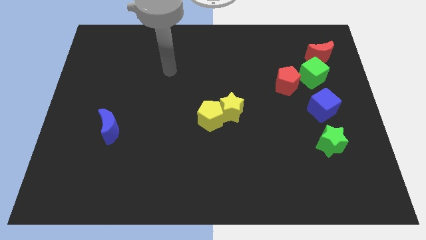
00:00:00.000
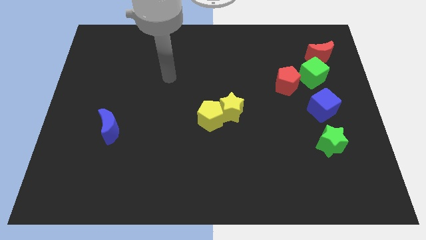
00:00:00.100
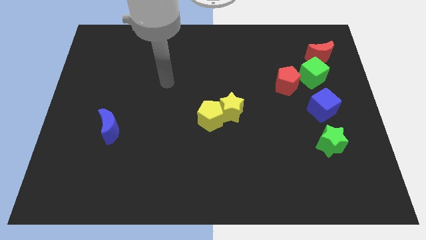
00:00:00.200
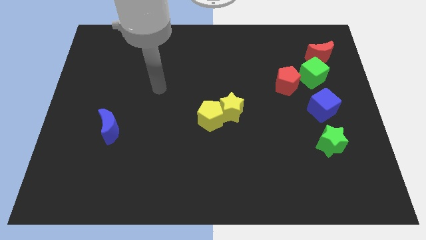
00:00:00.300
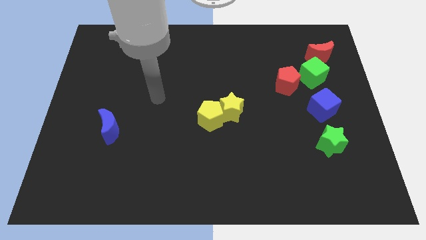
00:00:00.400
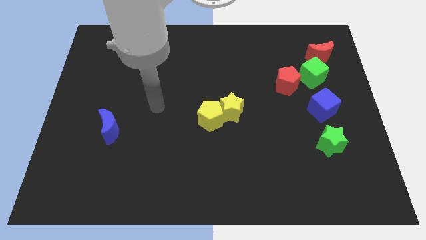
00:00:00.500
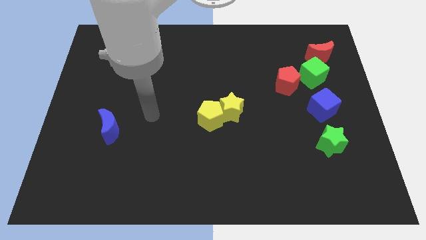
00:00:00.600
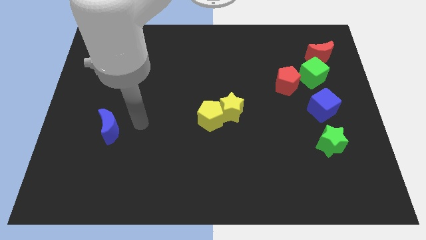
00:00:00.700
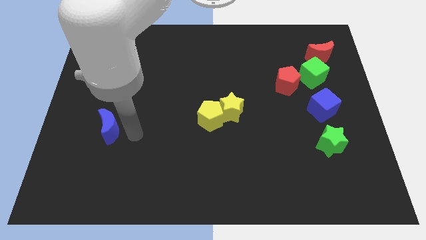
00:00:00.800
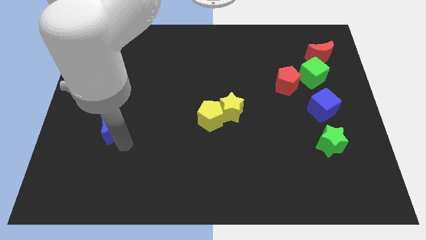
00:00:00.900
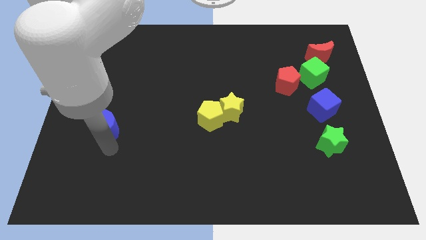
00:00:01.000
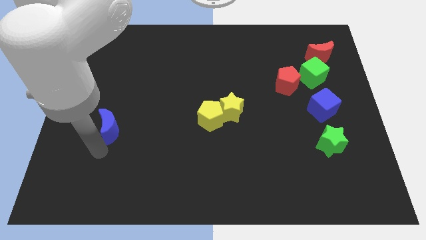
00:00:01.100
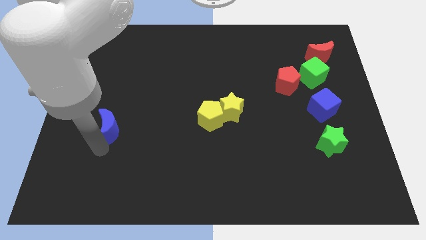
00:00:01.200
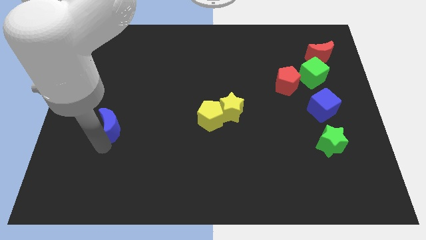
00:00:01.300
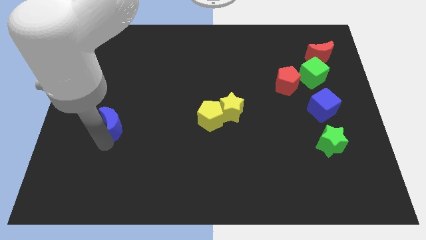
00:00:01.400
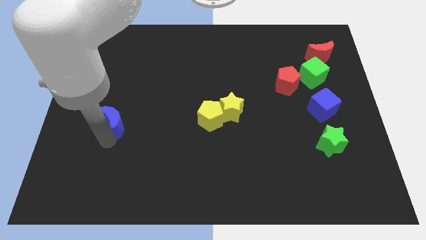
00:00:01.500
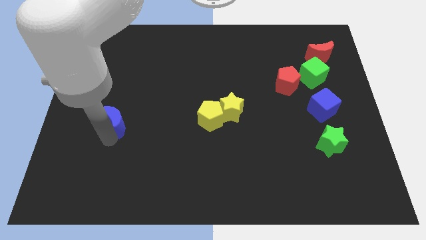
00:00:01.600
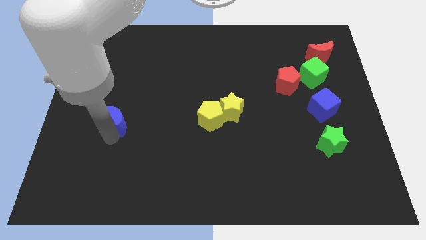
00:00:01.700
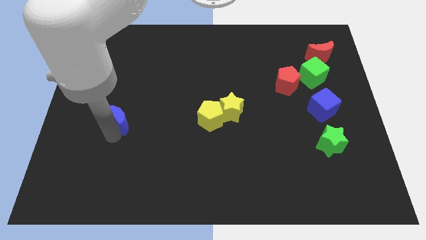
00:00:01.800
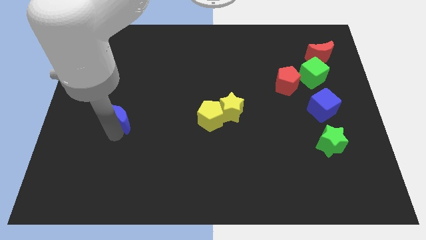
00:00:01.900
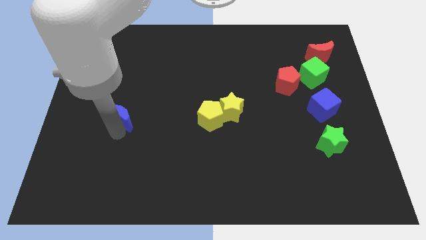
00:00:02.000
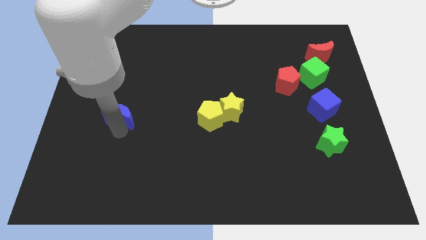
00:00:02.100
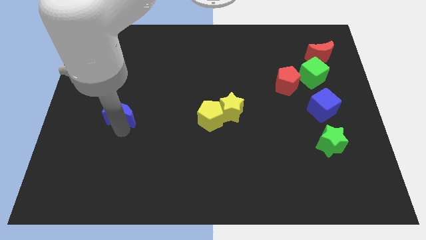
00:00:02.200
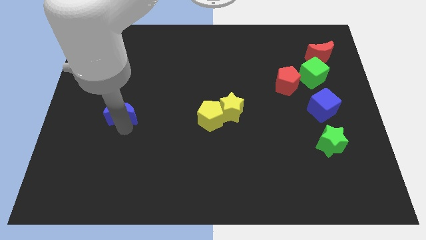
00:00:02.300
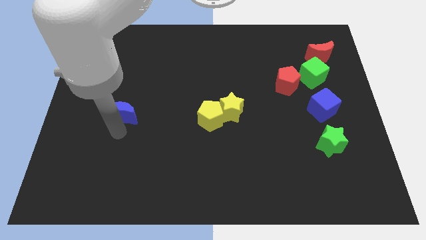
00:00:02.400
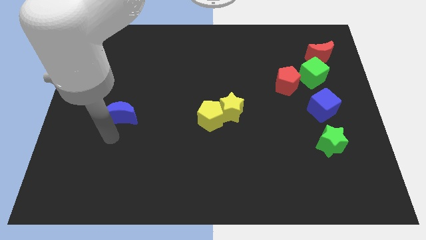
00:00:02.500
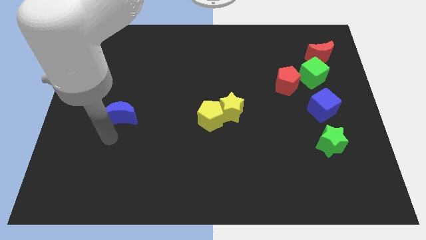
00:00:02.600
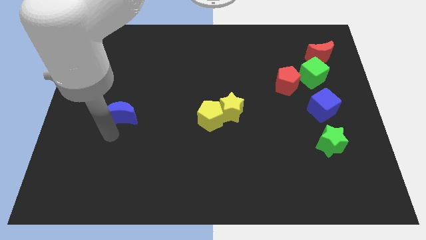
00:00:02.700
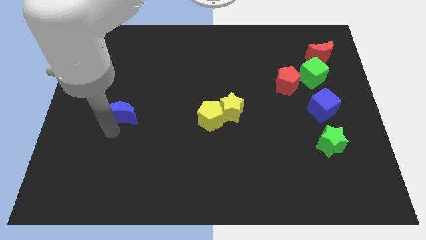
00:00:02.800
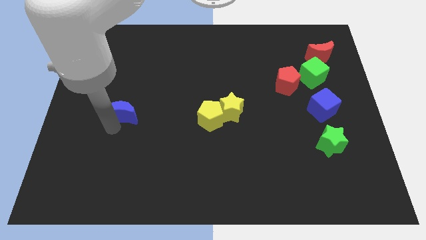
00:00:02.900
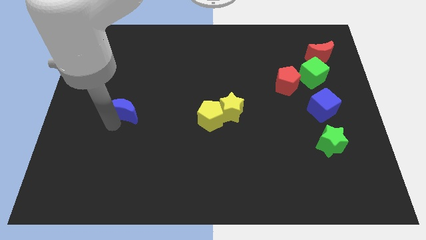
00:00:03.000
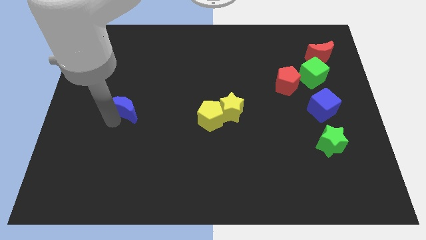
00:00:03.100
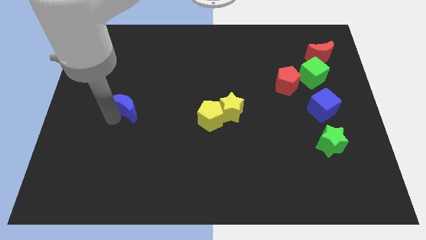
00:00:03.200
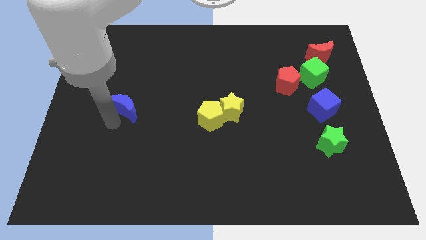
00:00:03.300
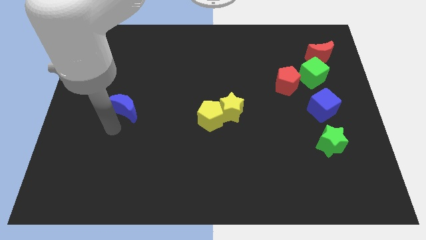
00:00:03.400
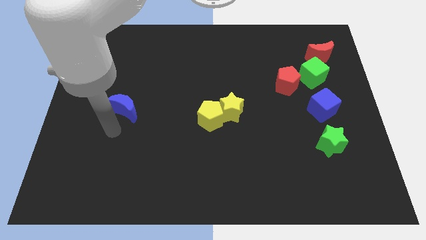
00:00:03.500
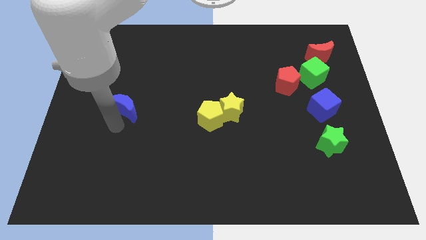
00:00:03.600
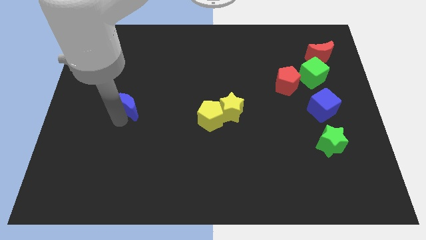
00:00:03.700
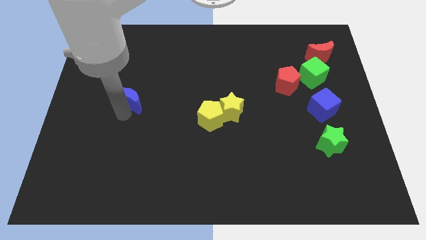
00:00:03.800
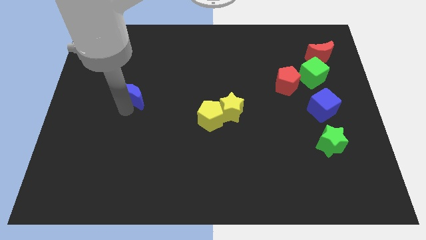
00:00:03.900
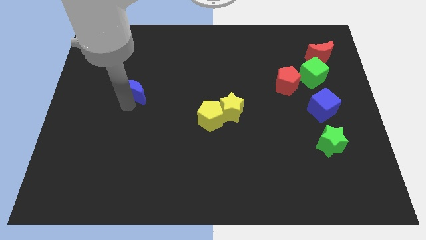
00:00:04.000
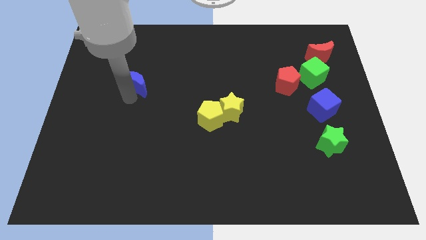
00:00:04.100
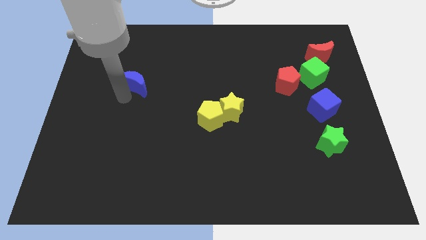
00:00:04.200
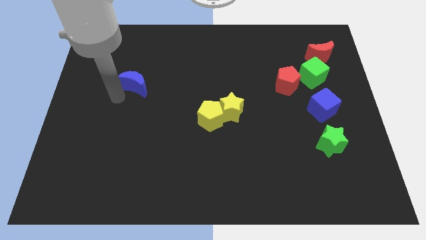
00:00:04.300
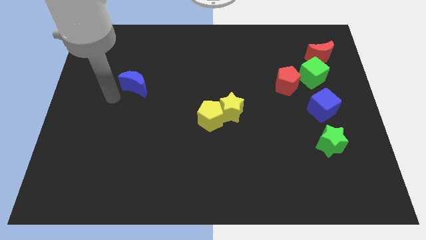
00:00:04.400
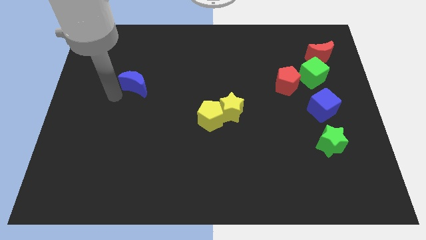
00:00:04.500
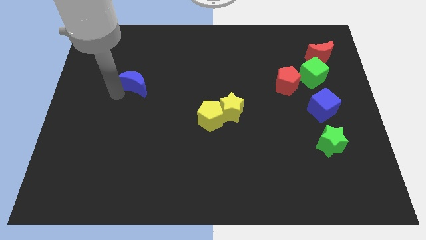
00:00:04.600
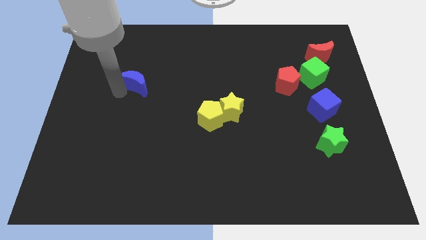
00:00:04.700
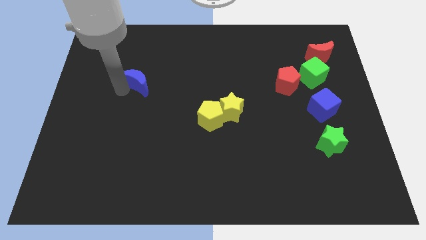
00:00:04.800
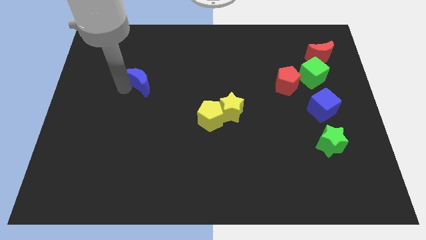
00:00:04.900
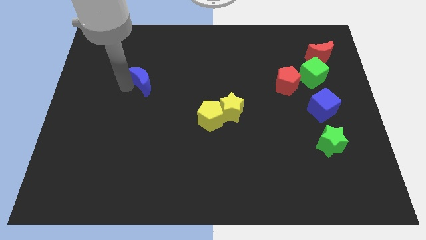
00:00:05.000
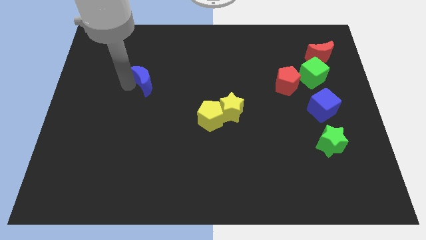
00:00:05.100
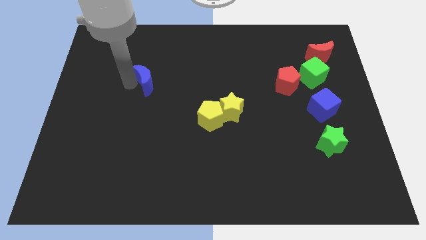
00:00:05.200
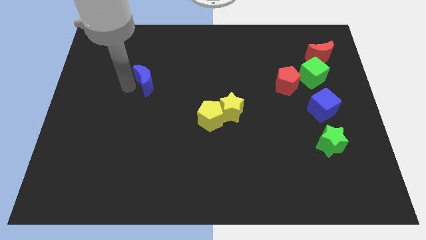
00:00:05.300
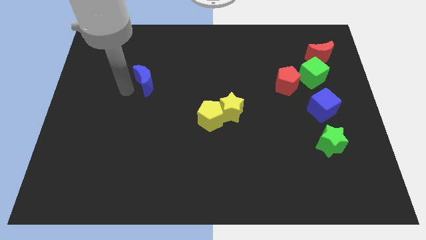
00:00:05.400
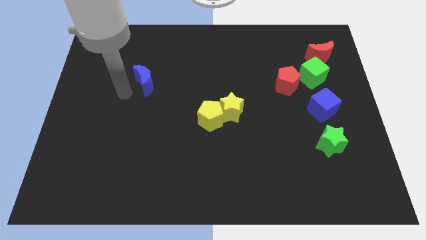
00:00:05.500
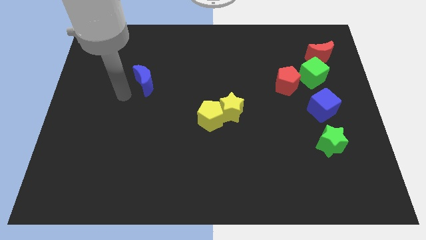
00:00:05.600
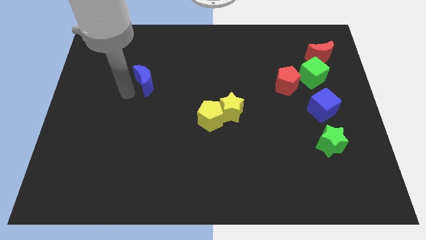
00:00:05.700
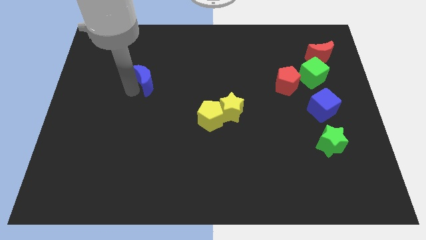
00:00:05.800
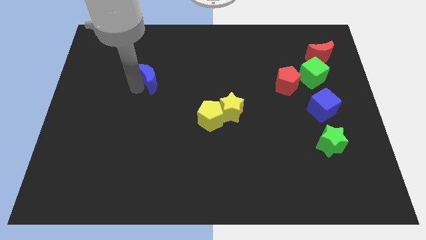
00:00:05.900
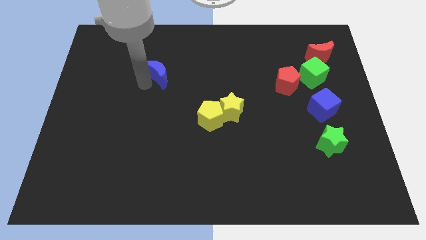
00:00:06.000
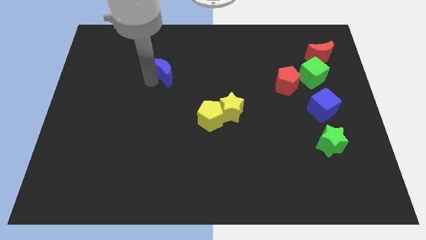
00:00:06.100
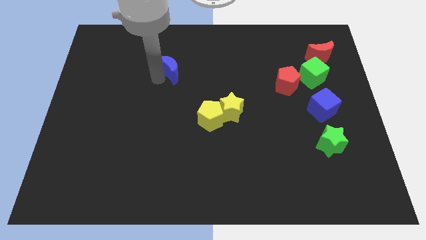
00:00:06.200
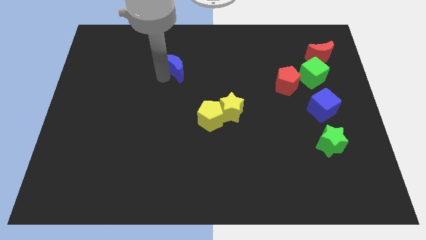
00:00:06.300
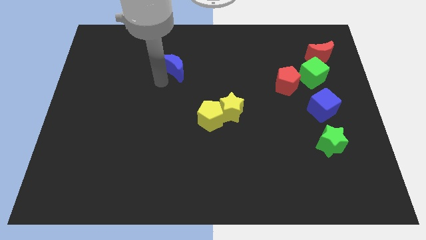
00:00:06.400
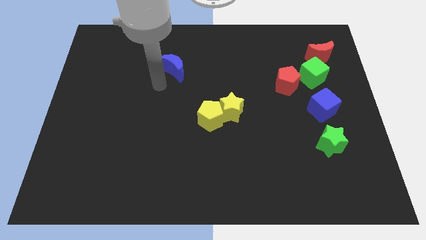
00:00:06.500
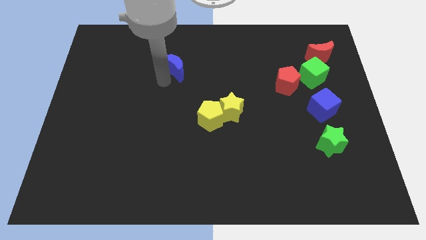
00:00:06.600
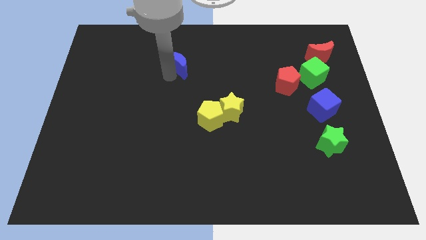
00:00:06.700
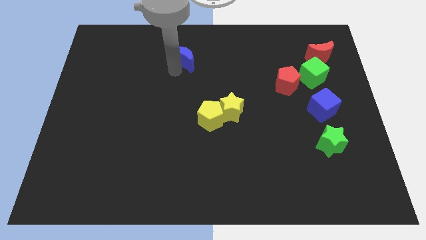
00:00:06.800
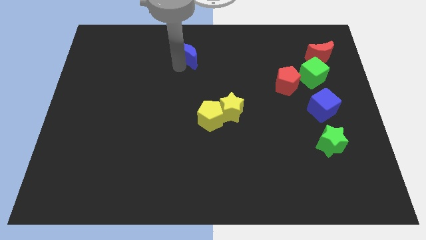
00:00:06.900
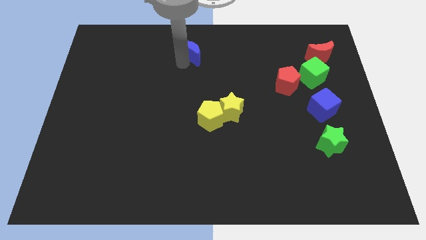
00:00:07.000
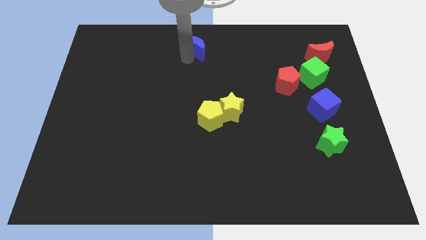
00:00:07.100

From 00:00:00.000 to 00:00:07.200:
slide the blue moon to the towards your base
